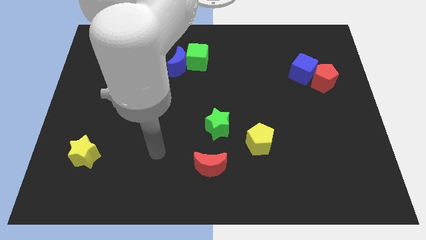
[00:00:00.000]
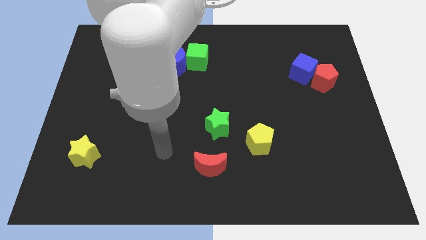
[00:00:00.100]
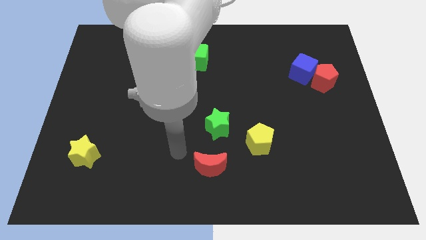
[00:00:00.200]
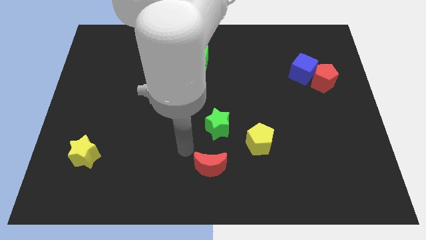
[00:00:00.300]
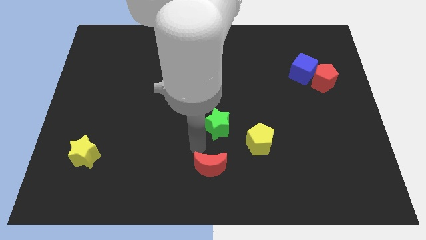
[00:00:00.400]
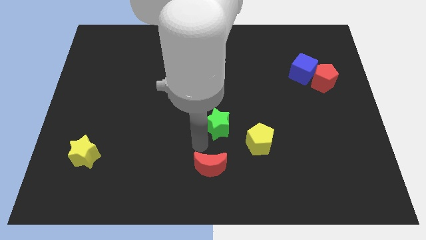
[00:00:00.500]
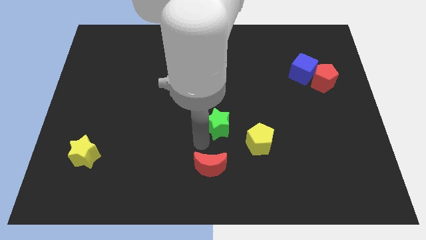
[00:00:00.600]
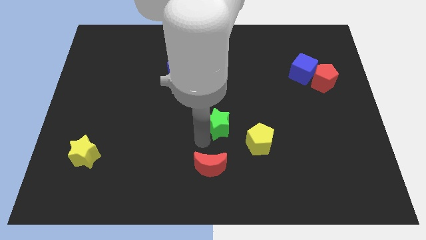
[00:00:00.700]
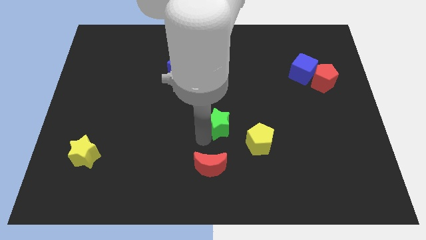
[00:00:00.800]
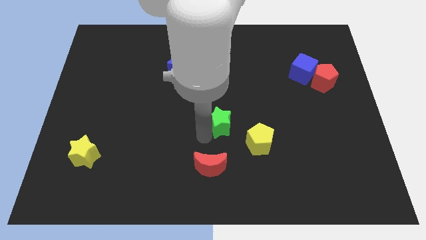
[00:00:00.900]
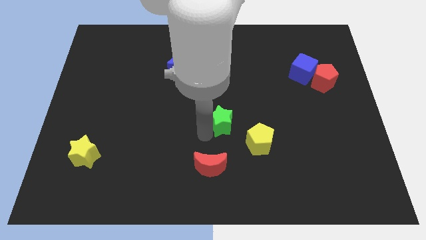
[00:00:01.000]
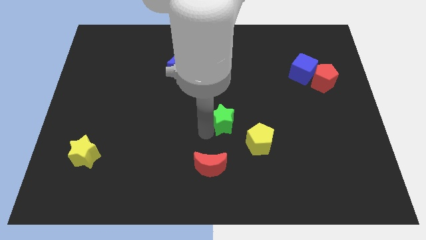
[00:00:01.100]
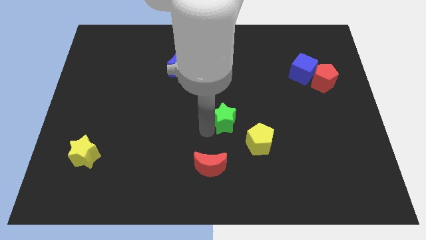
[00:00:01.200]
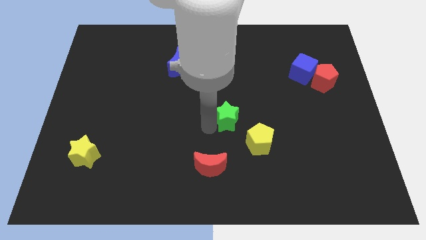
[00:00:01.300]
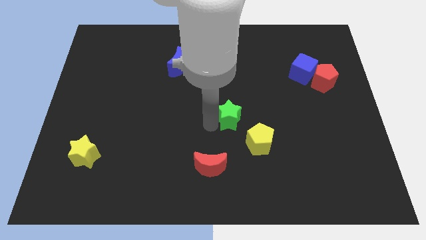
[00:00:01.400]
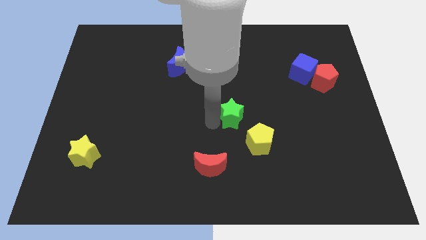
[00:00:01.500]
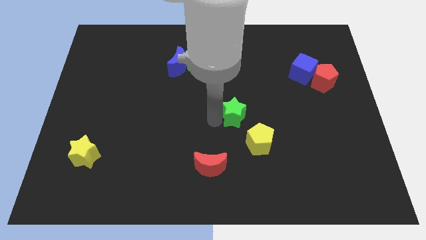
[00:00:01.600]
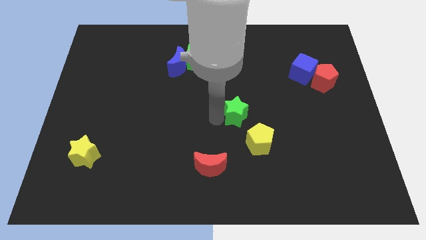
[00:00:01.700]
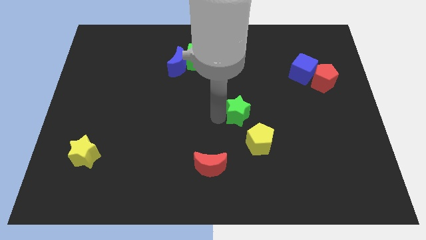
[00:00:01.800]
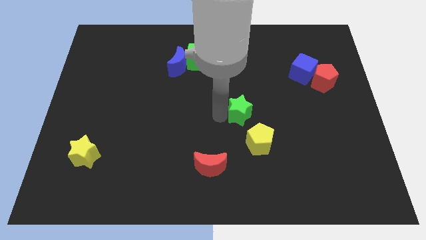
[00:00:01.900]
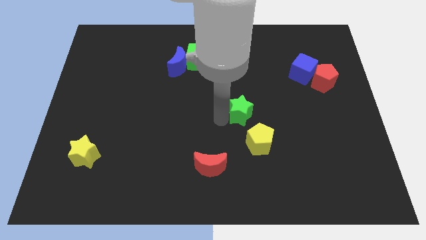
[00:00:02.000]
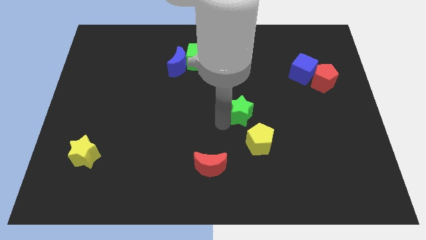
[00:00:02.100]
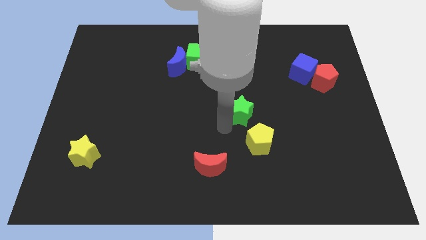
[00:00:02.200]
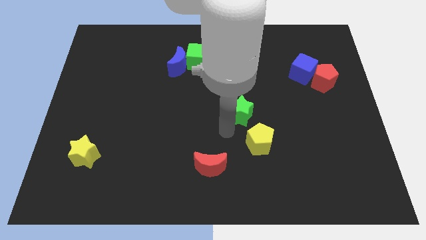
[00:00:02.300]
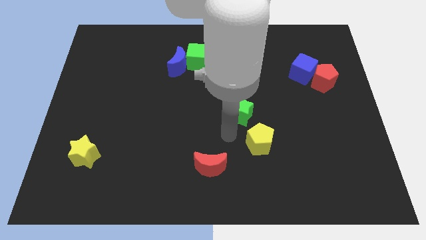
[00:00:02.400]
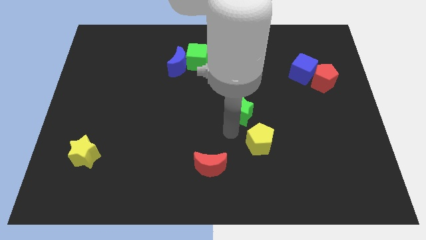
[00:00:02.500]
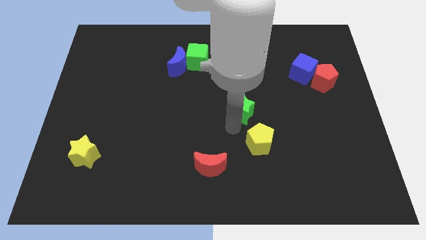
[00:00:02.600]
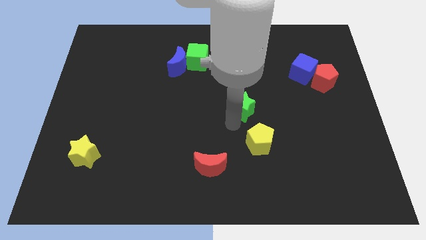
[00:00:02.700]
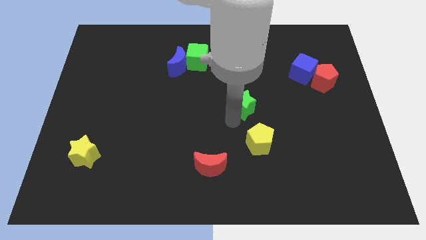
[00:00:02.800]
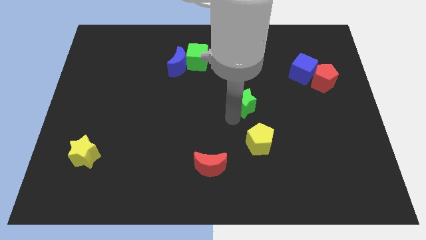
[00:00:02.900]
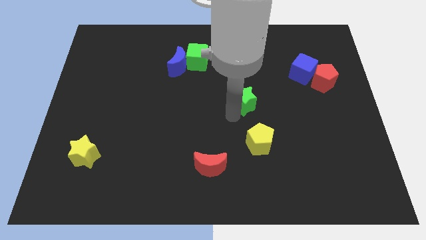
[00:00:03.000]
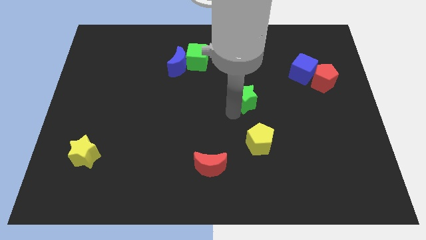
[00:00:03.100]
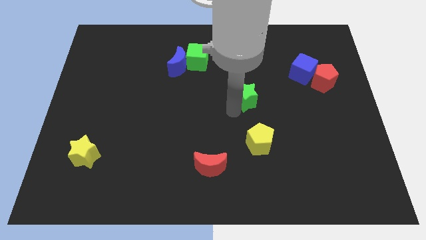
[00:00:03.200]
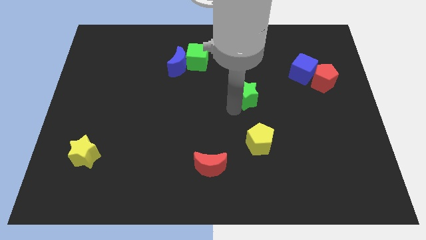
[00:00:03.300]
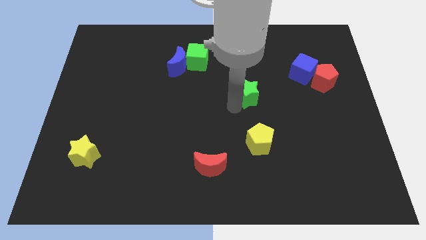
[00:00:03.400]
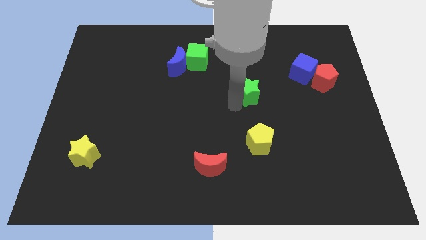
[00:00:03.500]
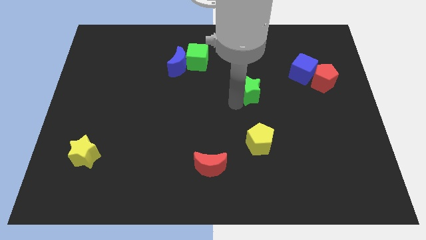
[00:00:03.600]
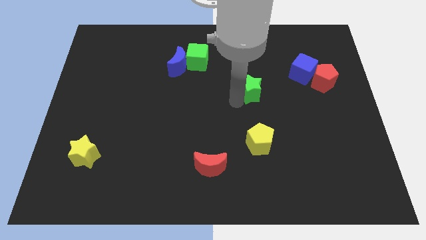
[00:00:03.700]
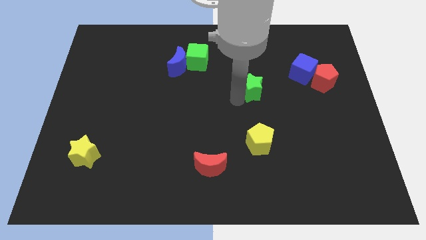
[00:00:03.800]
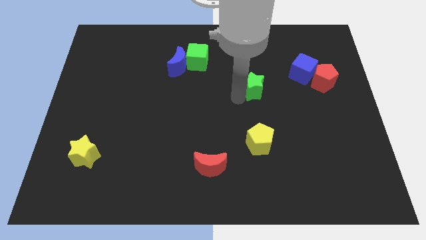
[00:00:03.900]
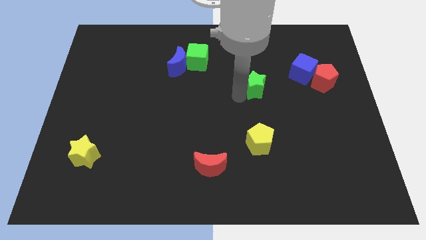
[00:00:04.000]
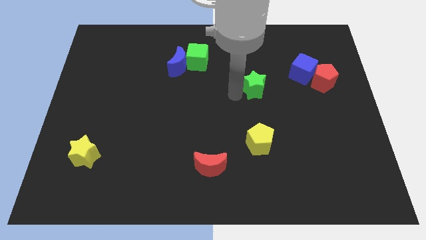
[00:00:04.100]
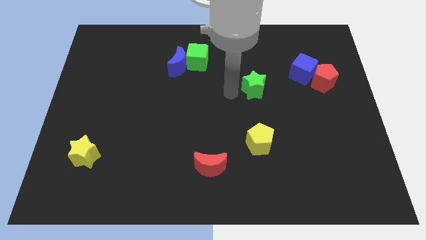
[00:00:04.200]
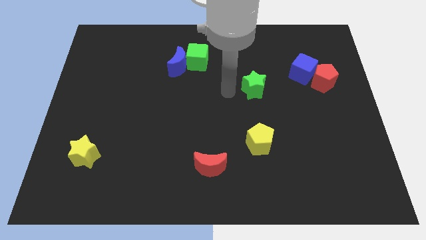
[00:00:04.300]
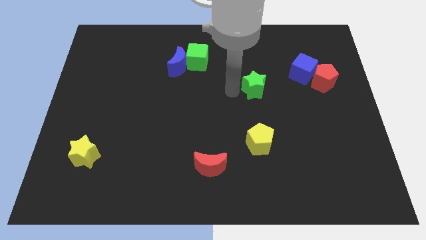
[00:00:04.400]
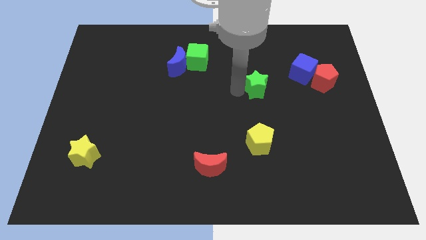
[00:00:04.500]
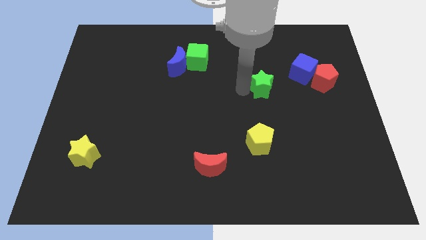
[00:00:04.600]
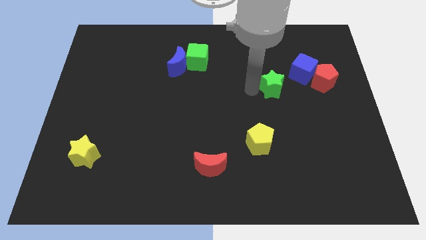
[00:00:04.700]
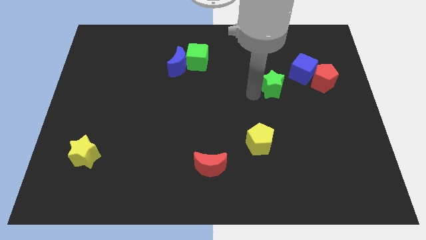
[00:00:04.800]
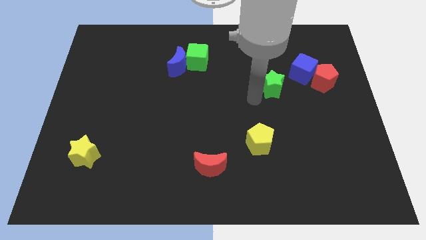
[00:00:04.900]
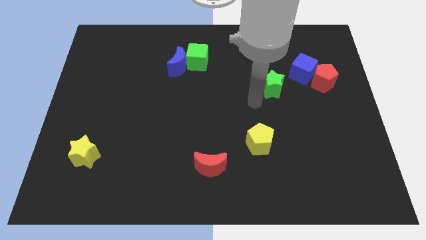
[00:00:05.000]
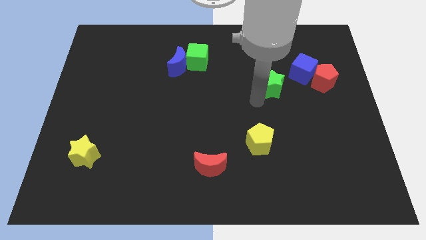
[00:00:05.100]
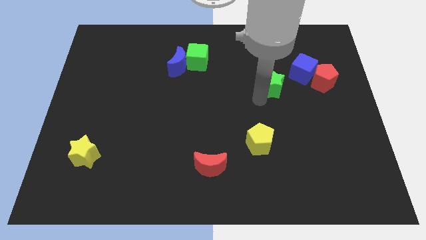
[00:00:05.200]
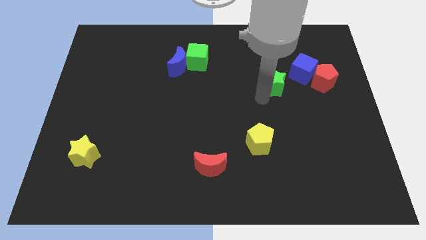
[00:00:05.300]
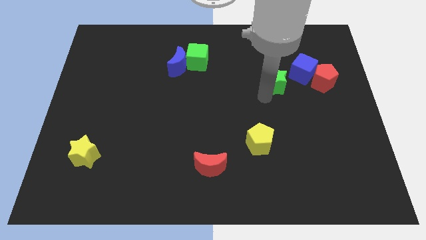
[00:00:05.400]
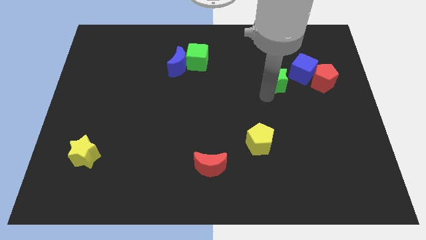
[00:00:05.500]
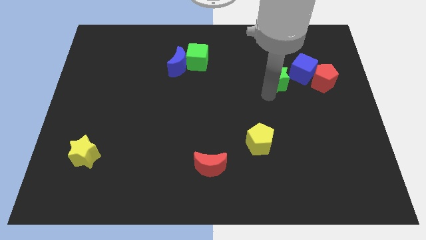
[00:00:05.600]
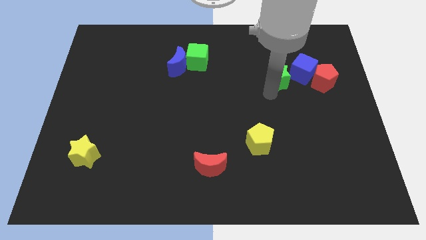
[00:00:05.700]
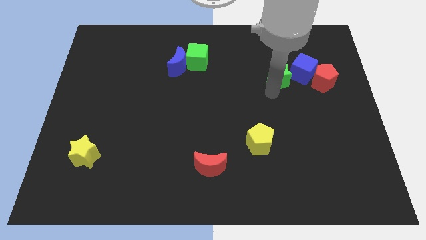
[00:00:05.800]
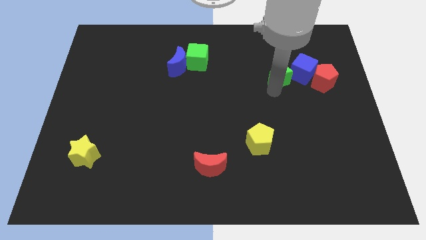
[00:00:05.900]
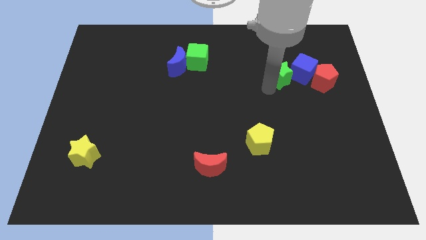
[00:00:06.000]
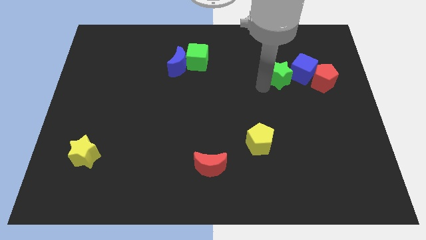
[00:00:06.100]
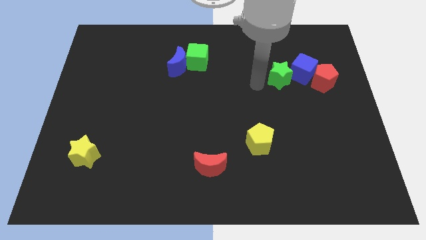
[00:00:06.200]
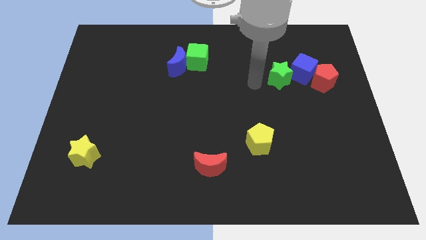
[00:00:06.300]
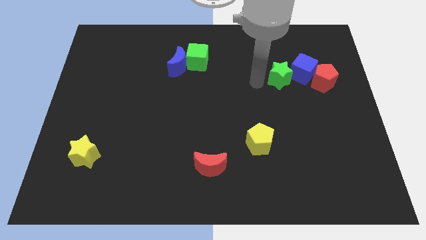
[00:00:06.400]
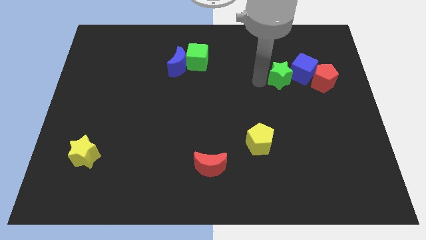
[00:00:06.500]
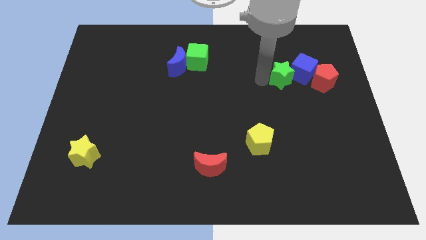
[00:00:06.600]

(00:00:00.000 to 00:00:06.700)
push the green star towards the blue cube
